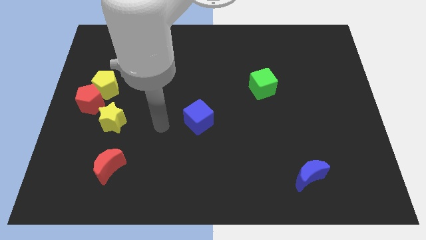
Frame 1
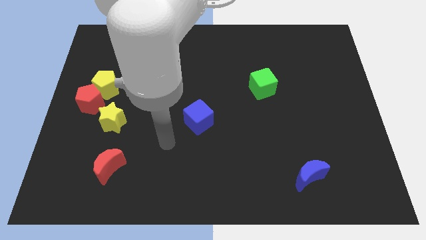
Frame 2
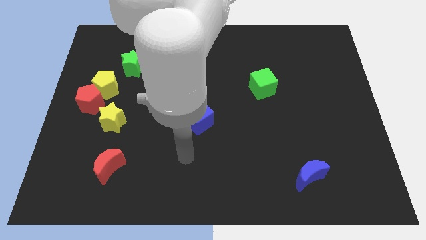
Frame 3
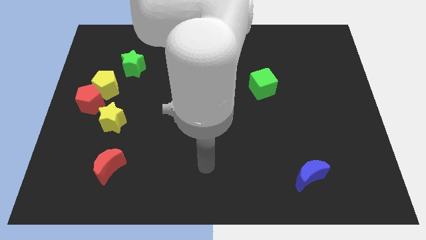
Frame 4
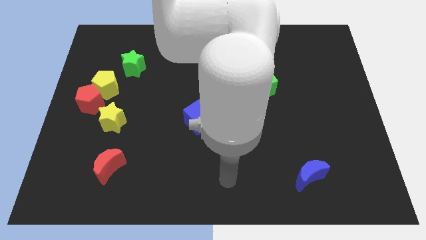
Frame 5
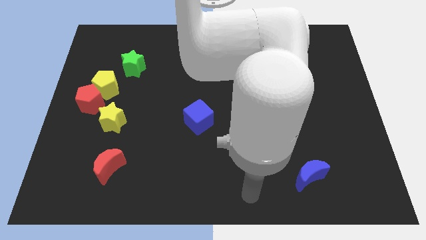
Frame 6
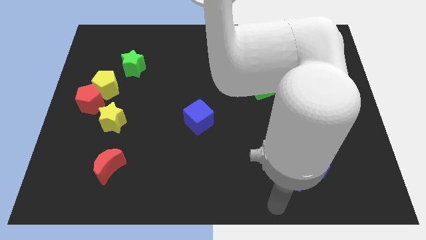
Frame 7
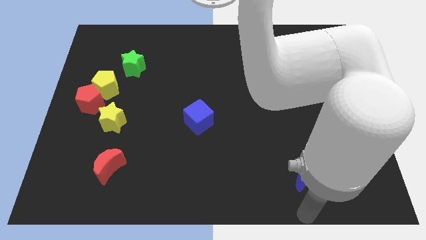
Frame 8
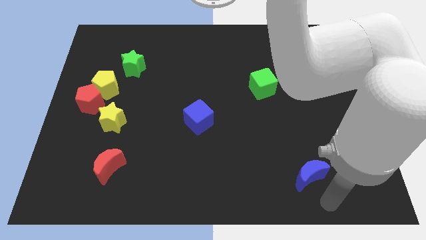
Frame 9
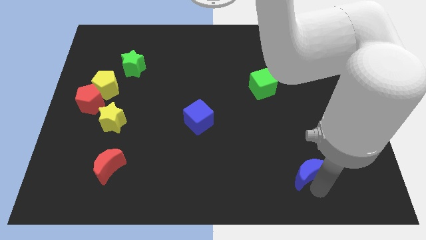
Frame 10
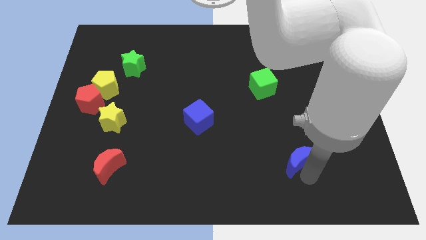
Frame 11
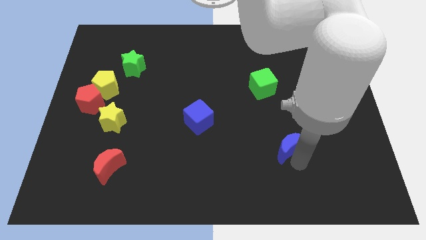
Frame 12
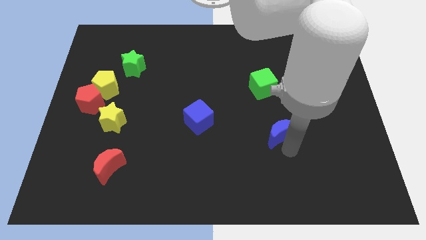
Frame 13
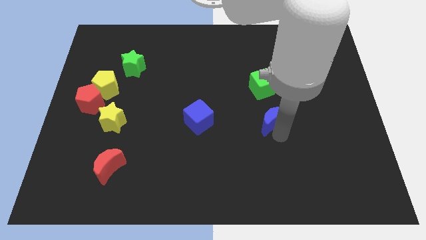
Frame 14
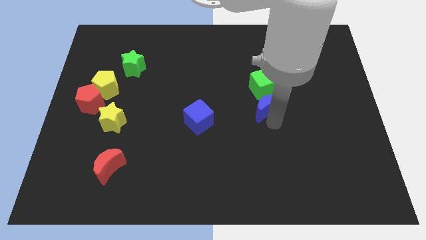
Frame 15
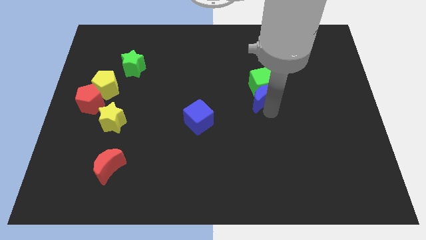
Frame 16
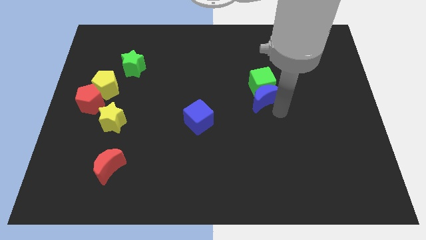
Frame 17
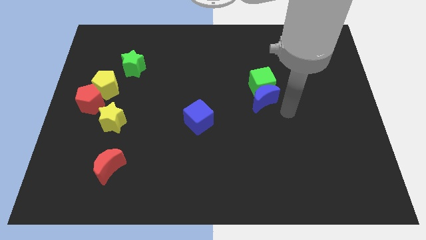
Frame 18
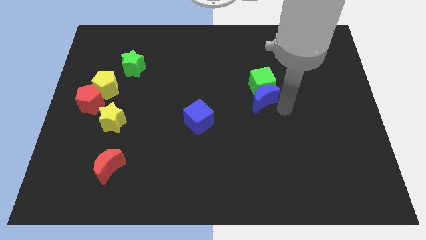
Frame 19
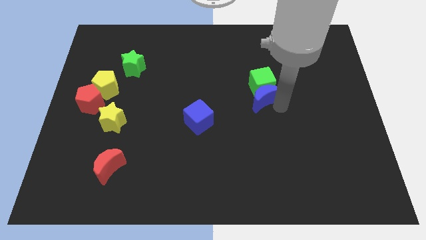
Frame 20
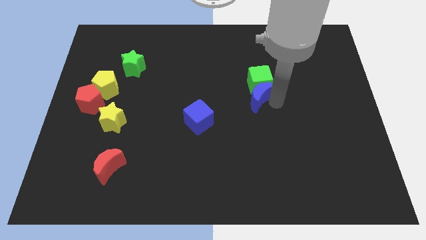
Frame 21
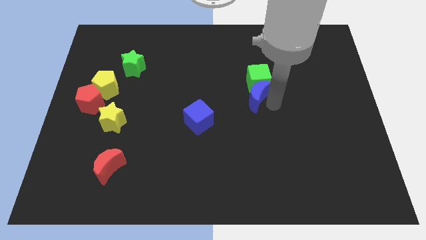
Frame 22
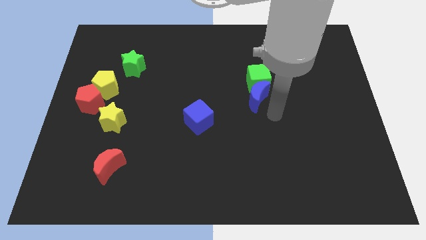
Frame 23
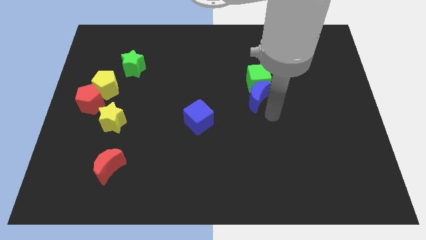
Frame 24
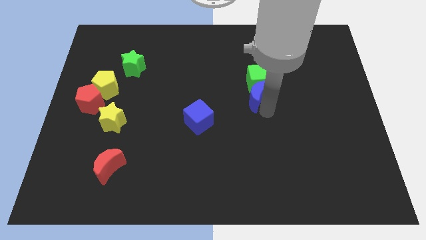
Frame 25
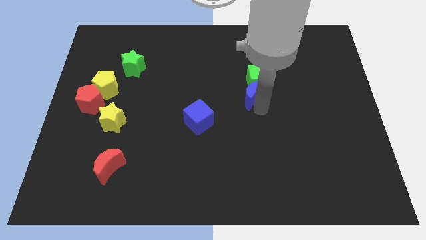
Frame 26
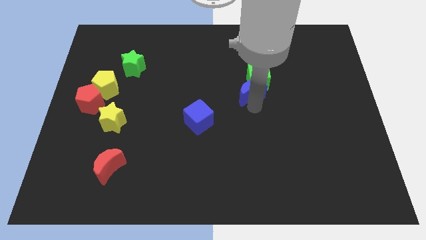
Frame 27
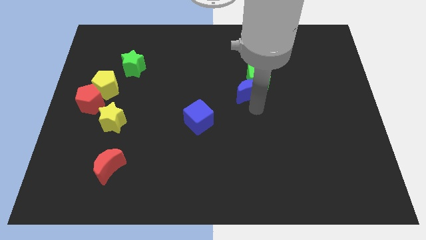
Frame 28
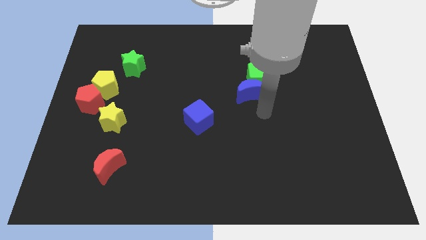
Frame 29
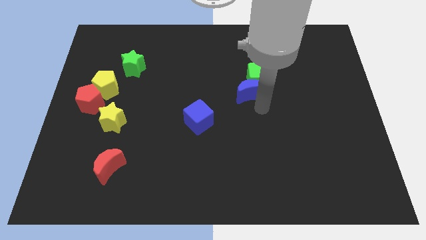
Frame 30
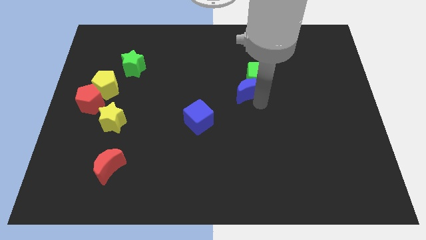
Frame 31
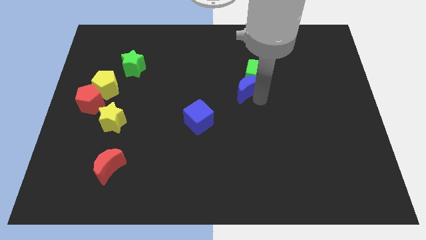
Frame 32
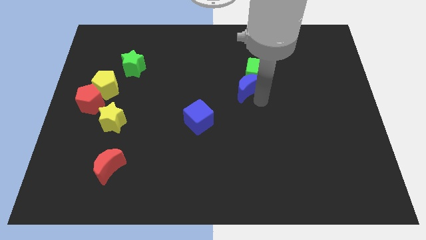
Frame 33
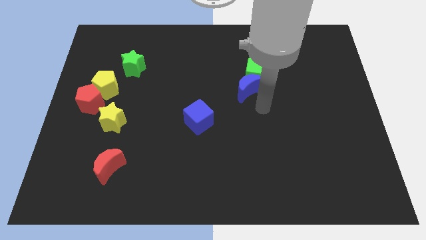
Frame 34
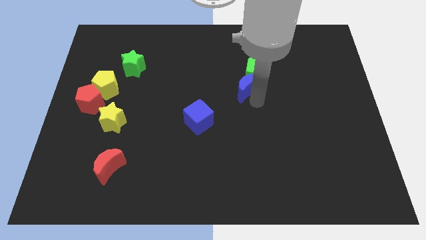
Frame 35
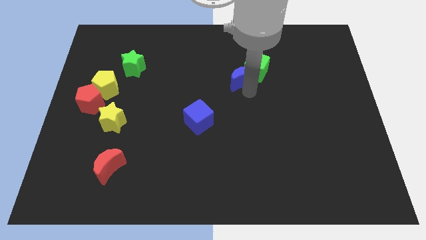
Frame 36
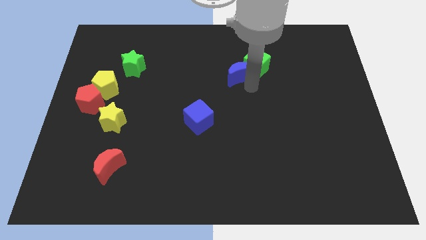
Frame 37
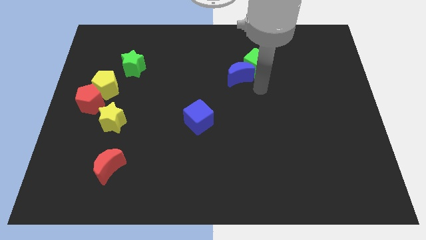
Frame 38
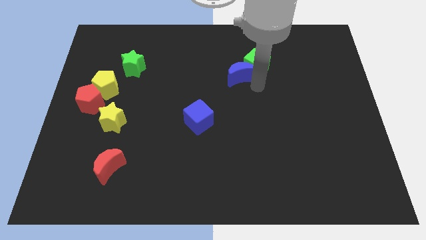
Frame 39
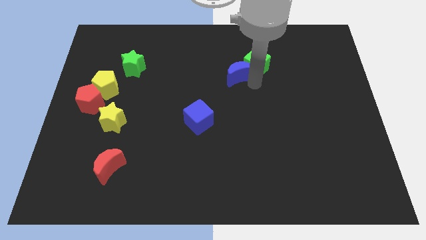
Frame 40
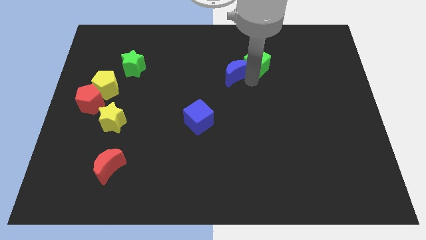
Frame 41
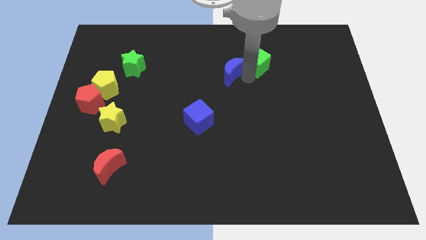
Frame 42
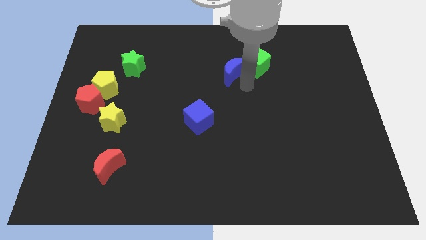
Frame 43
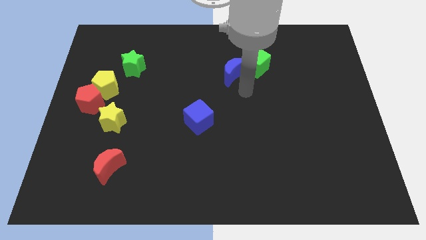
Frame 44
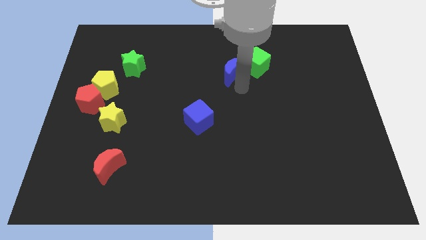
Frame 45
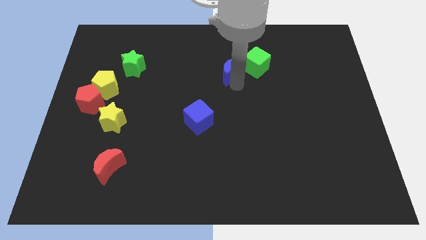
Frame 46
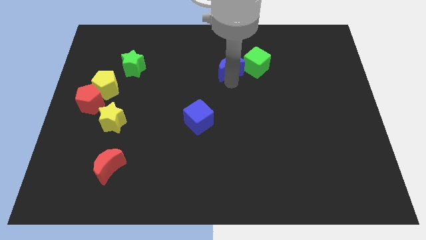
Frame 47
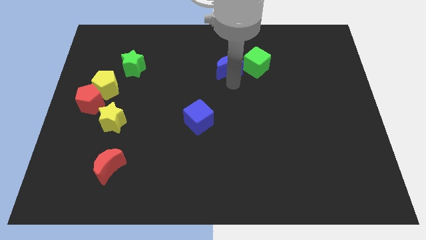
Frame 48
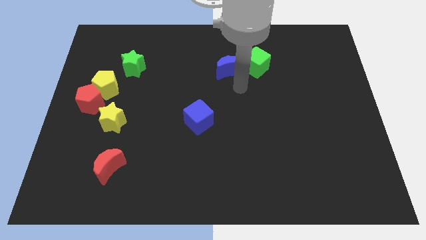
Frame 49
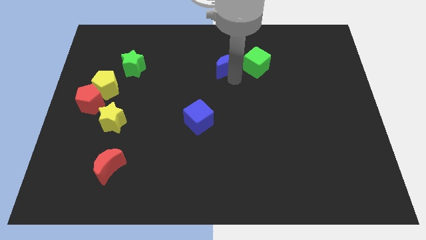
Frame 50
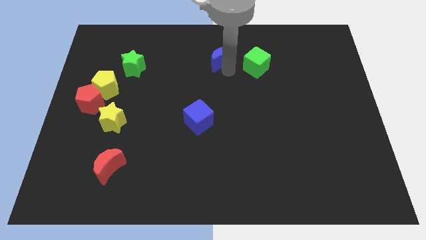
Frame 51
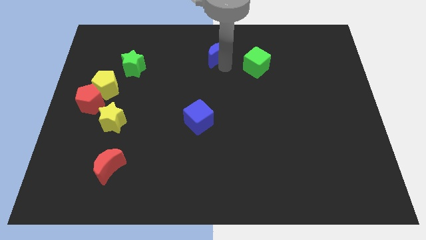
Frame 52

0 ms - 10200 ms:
slide the blue moon to the top

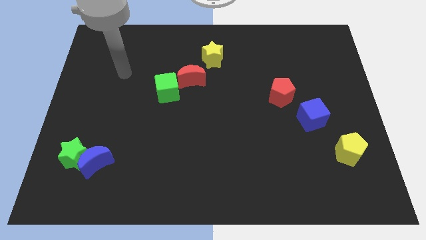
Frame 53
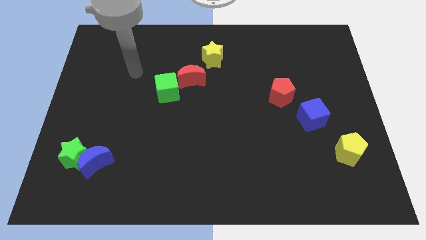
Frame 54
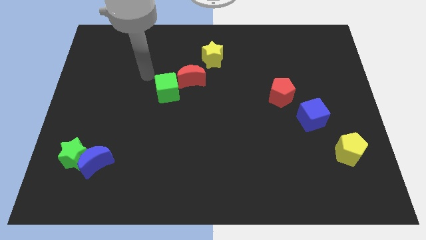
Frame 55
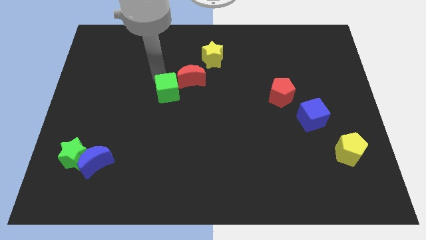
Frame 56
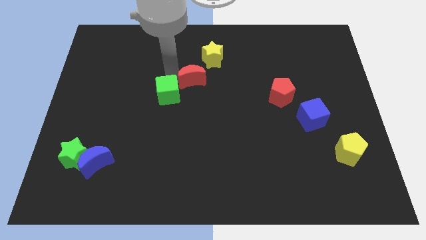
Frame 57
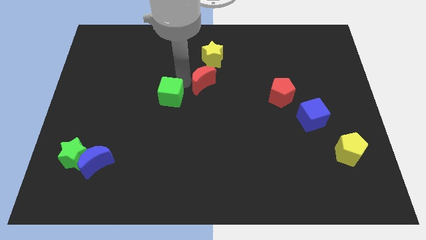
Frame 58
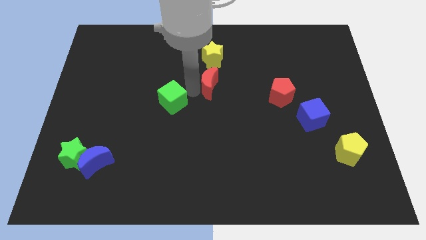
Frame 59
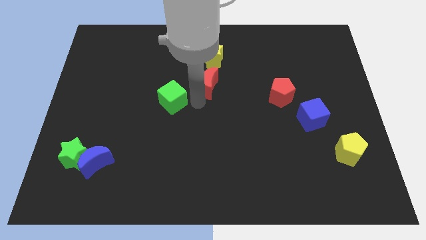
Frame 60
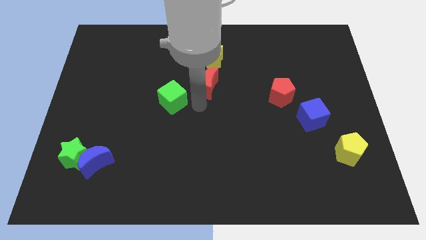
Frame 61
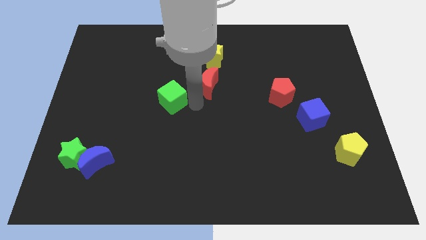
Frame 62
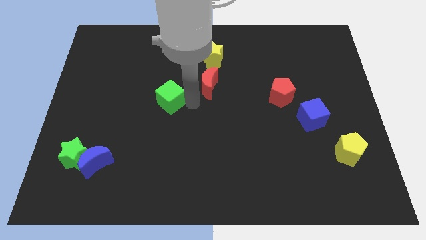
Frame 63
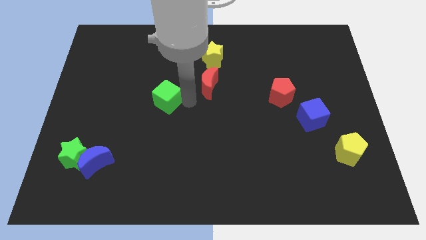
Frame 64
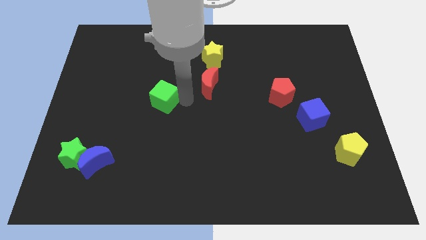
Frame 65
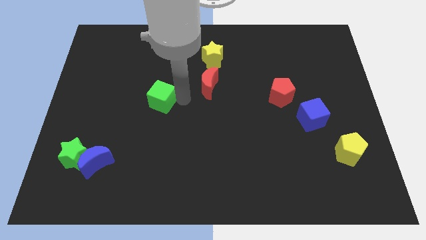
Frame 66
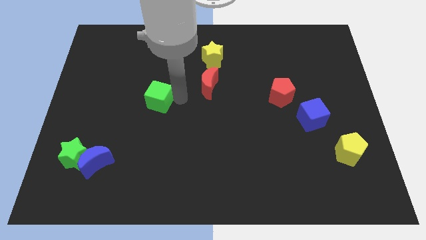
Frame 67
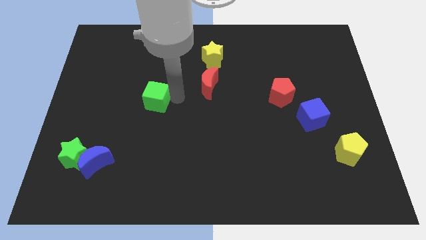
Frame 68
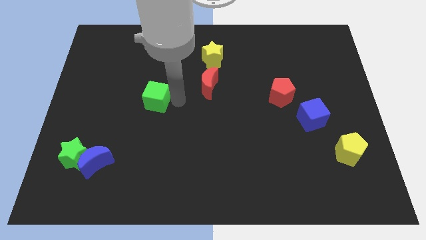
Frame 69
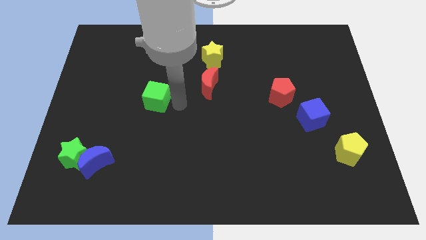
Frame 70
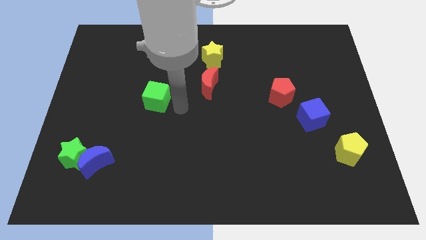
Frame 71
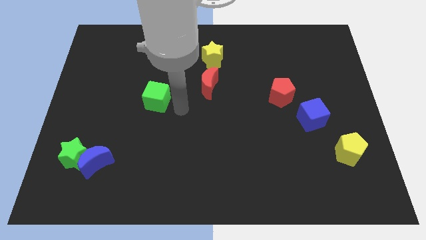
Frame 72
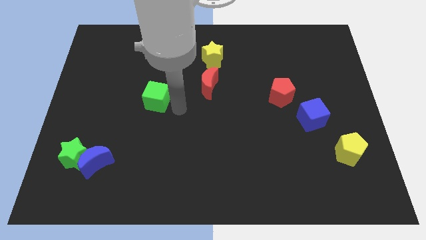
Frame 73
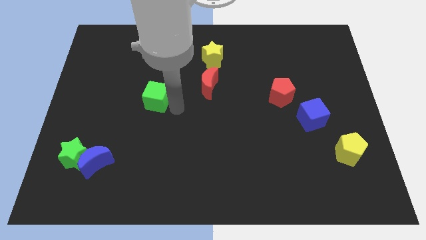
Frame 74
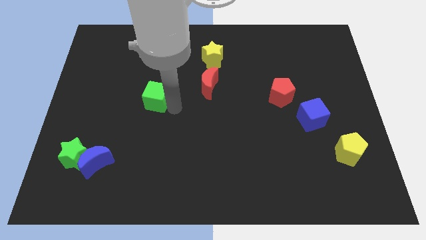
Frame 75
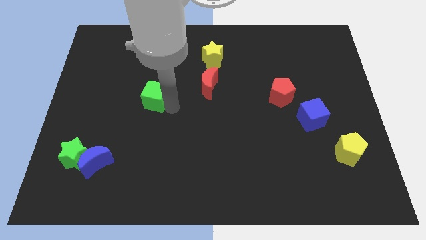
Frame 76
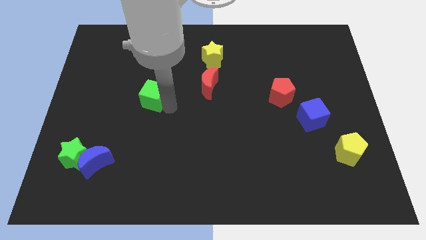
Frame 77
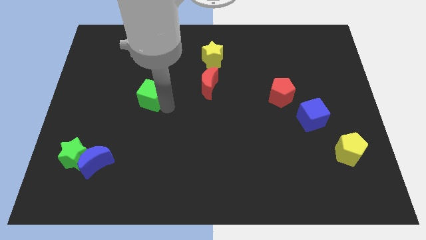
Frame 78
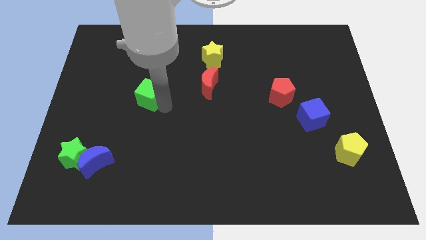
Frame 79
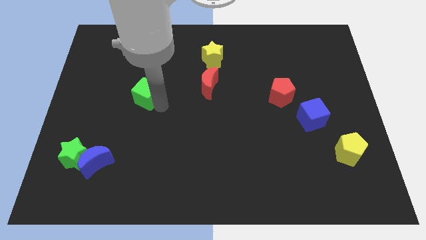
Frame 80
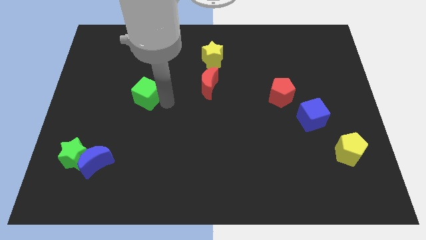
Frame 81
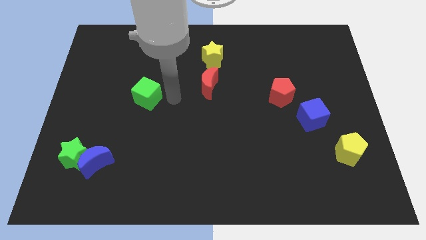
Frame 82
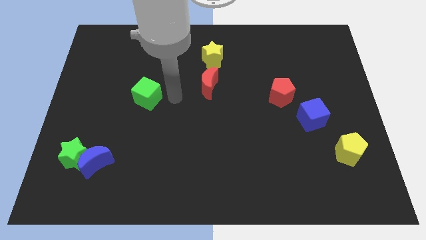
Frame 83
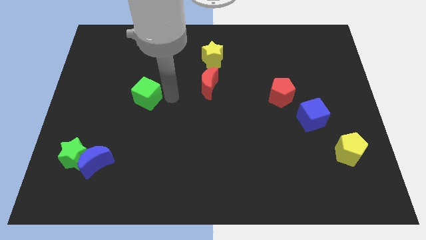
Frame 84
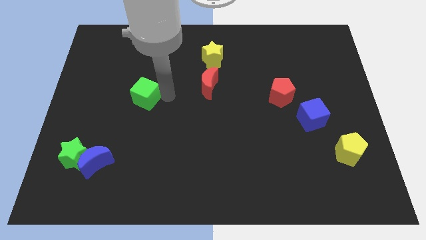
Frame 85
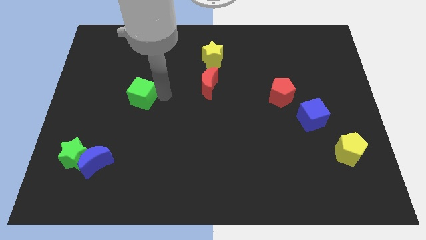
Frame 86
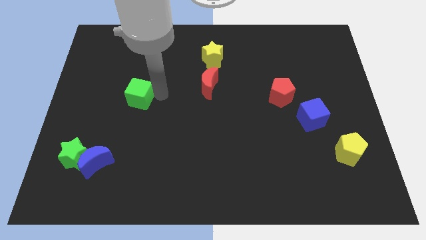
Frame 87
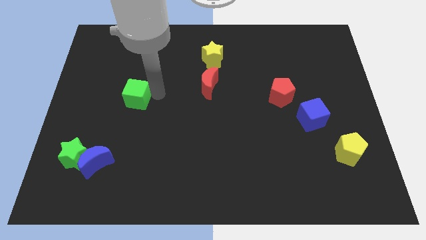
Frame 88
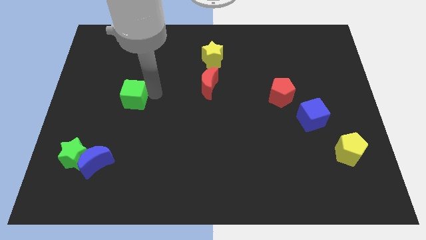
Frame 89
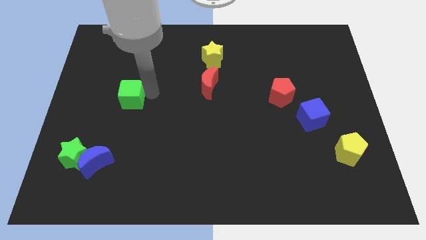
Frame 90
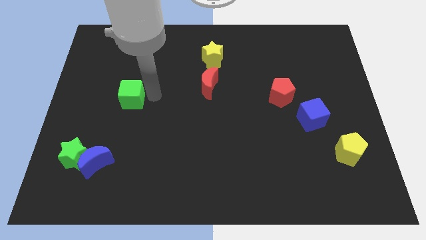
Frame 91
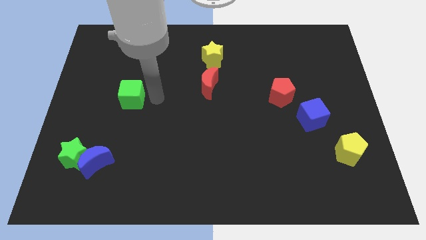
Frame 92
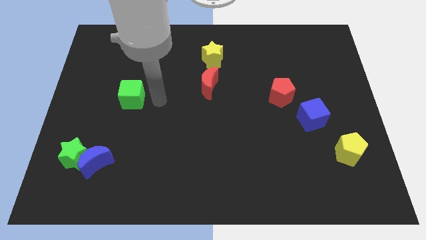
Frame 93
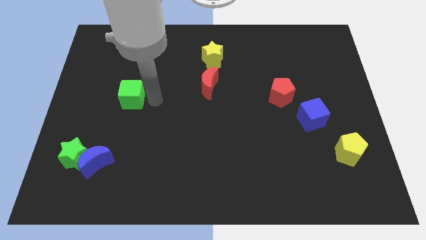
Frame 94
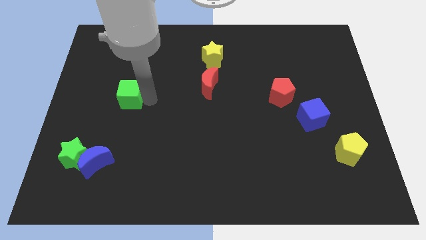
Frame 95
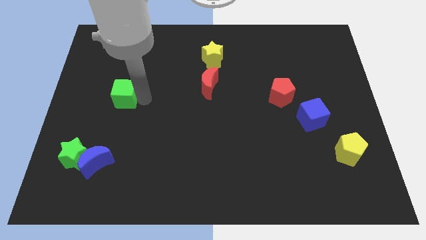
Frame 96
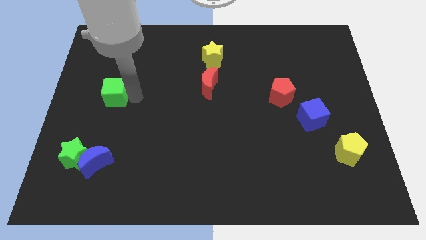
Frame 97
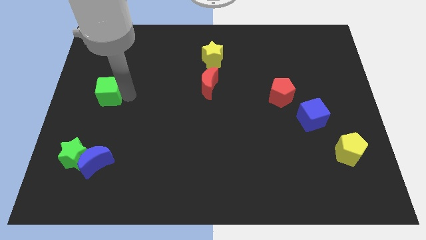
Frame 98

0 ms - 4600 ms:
slide the green cube to the center left
